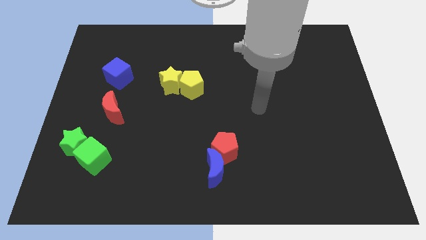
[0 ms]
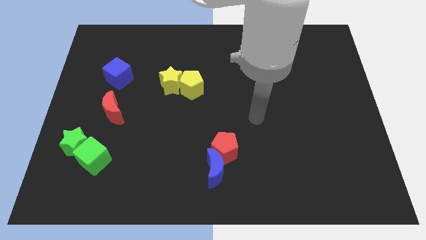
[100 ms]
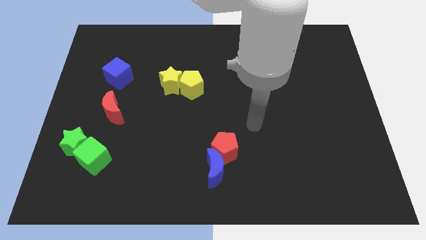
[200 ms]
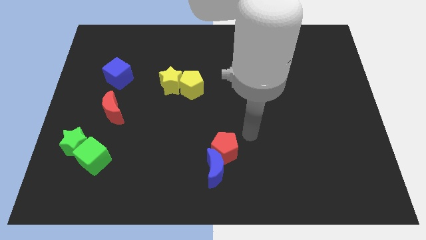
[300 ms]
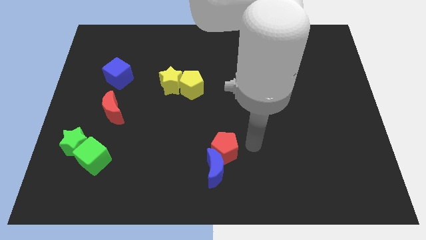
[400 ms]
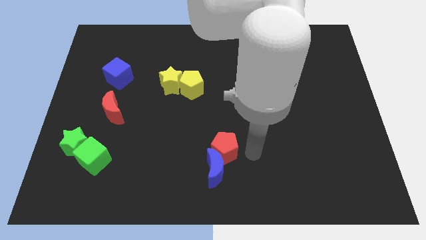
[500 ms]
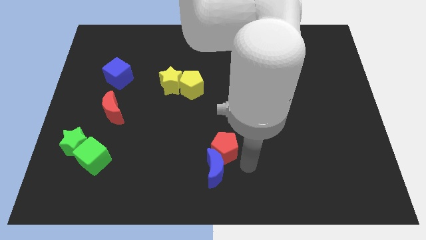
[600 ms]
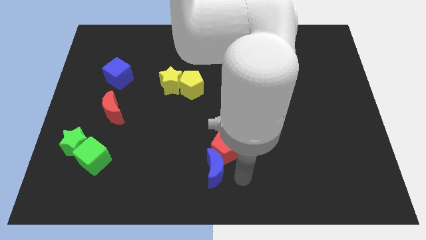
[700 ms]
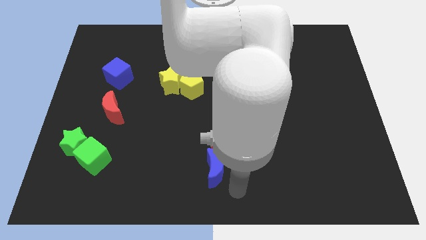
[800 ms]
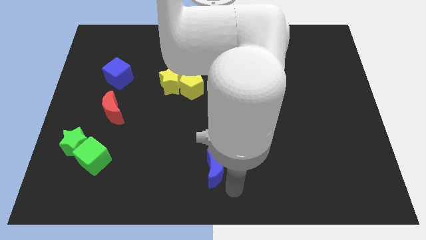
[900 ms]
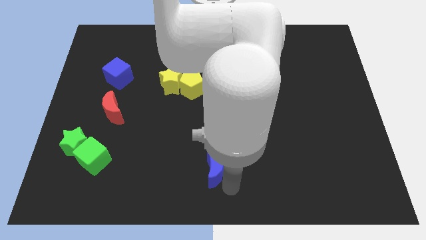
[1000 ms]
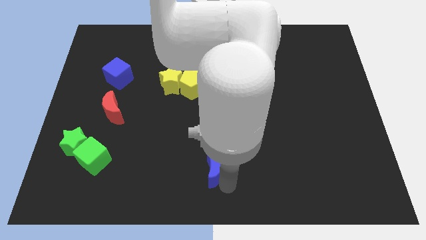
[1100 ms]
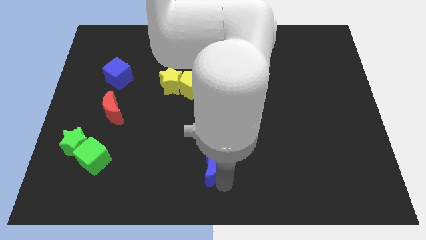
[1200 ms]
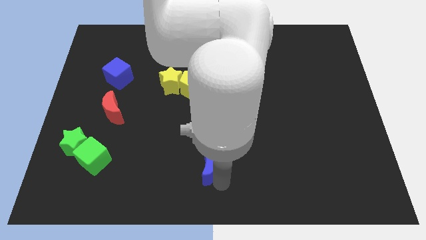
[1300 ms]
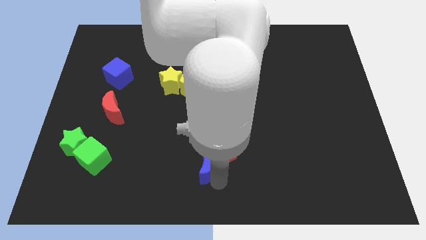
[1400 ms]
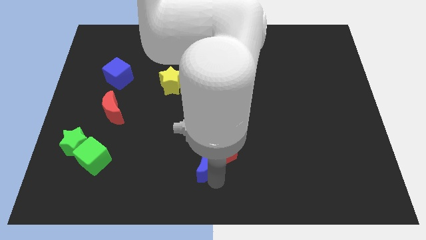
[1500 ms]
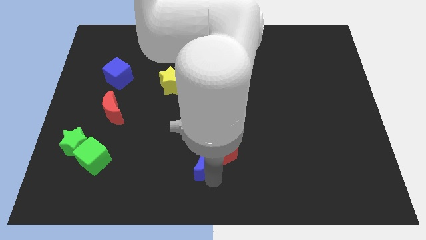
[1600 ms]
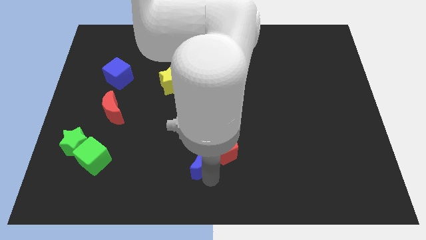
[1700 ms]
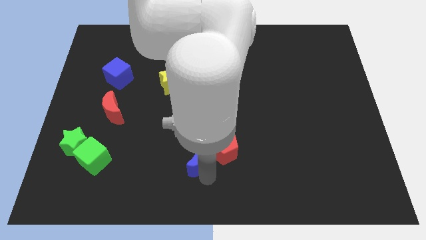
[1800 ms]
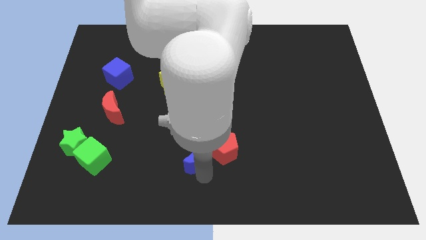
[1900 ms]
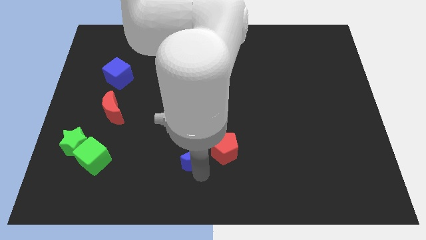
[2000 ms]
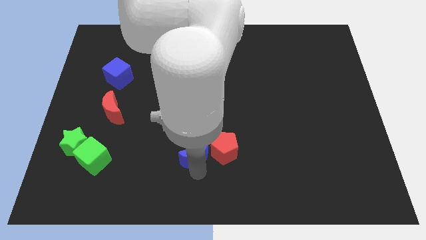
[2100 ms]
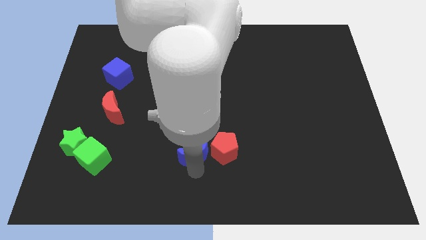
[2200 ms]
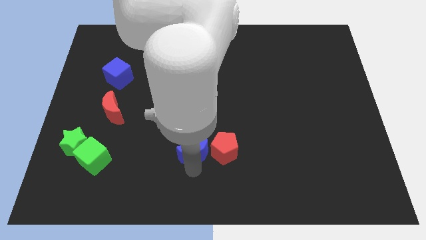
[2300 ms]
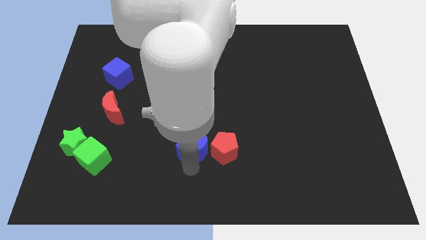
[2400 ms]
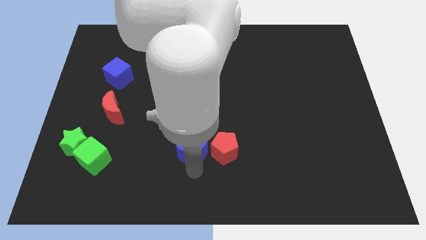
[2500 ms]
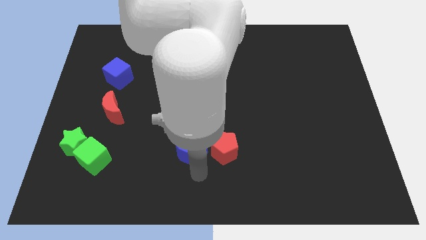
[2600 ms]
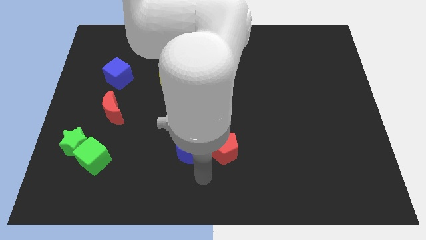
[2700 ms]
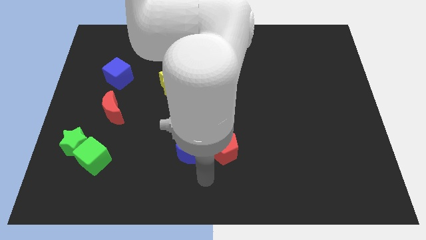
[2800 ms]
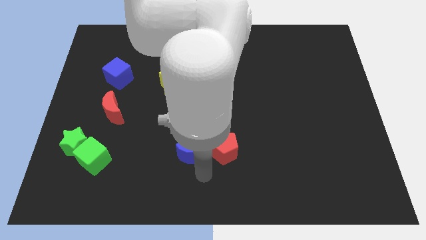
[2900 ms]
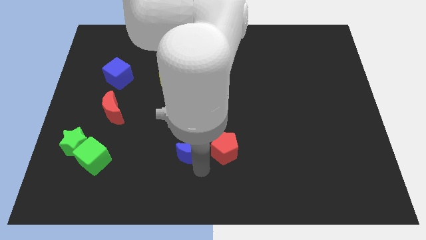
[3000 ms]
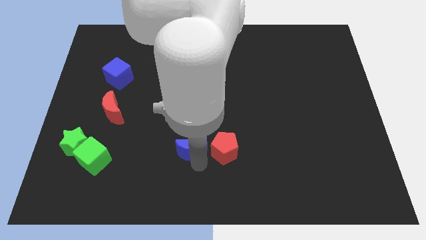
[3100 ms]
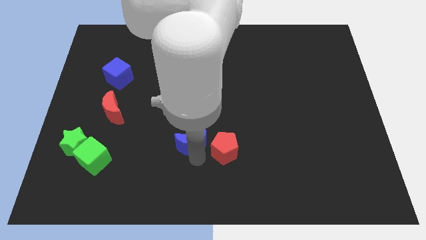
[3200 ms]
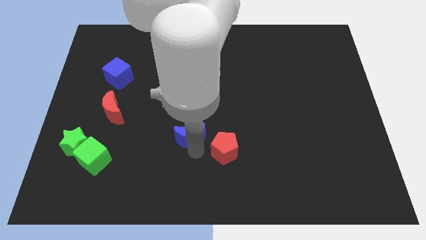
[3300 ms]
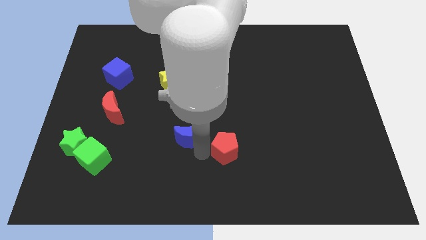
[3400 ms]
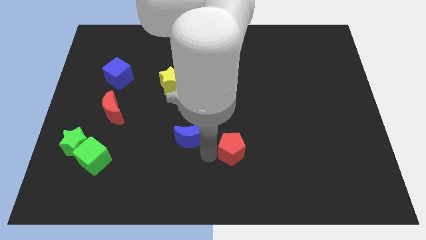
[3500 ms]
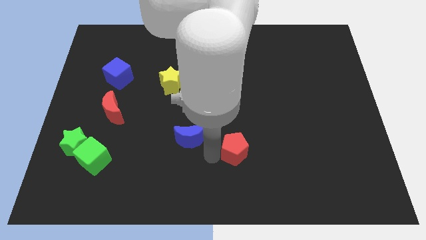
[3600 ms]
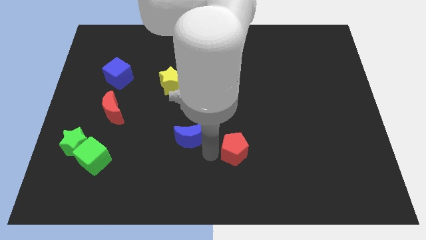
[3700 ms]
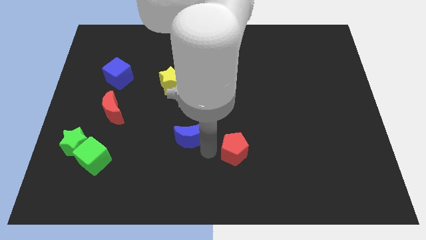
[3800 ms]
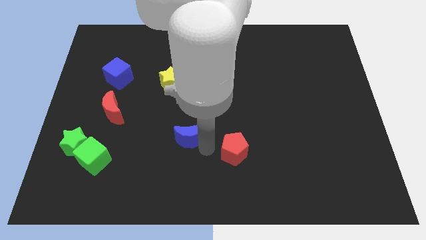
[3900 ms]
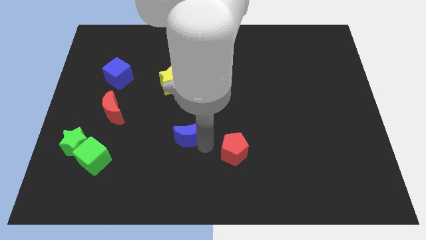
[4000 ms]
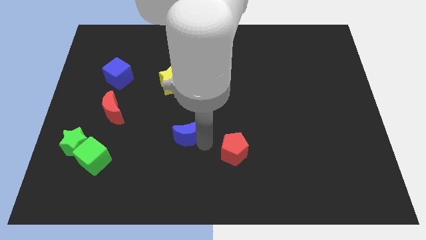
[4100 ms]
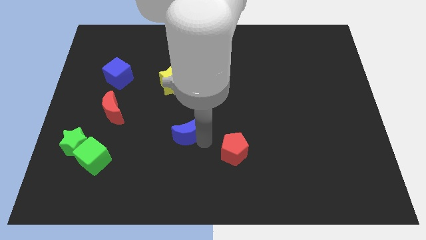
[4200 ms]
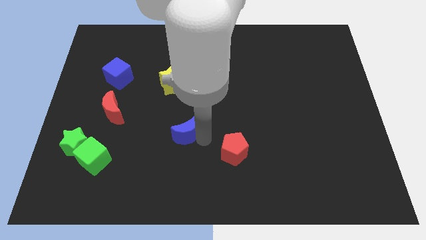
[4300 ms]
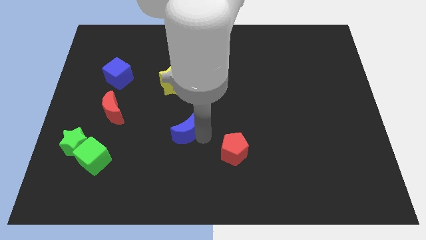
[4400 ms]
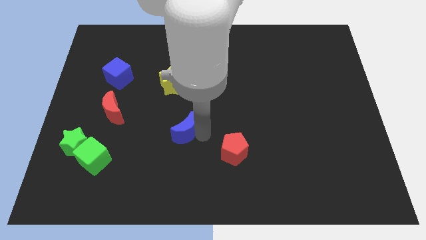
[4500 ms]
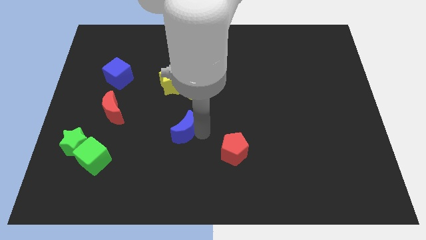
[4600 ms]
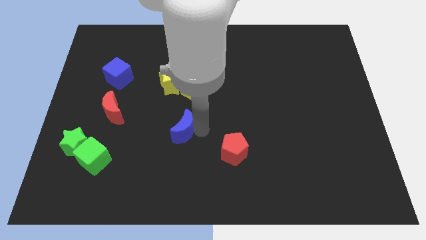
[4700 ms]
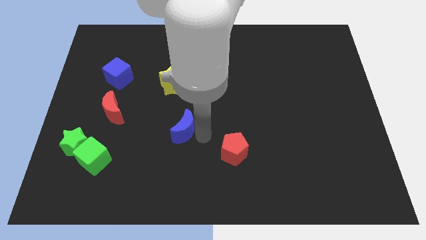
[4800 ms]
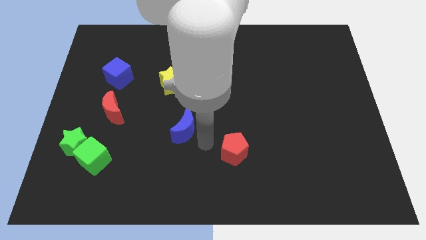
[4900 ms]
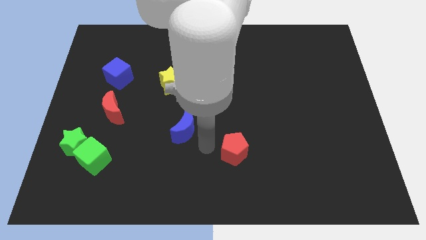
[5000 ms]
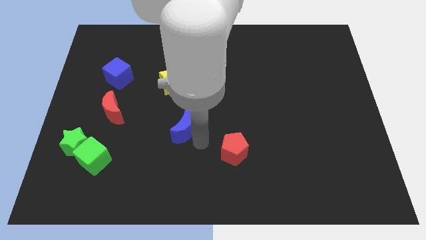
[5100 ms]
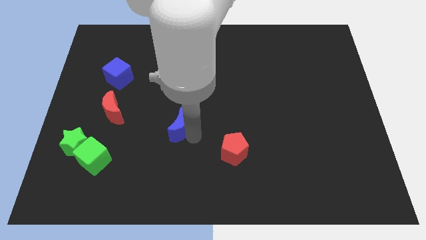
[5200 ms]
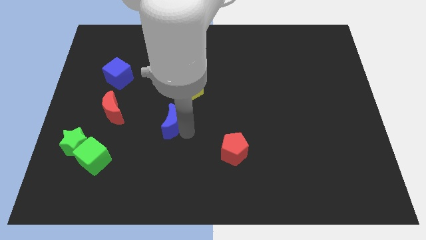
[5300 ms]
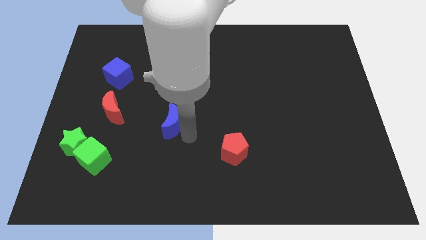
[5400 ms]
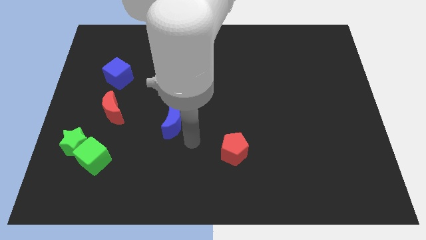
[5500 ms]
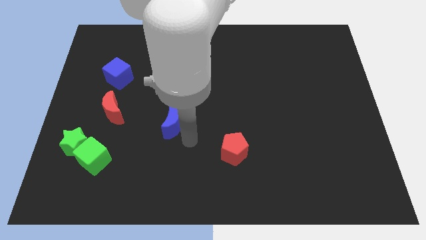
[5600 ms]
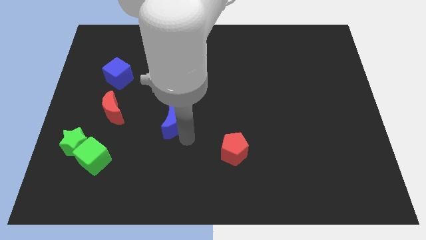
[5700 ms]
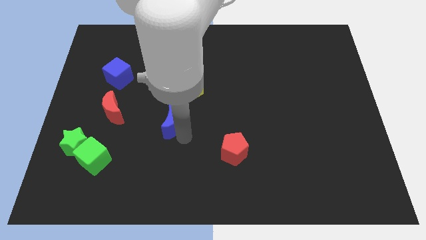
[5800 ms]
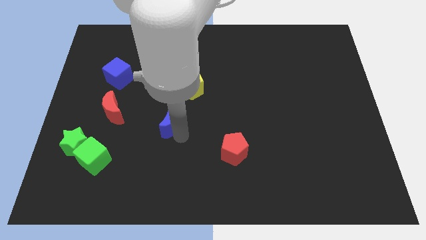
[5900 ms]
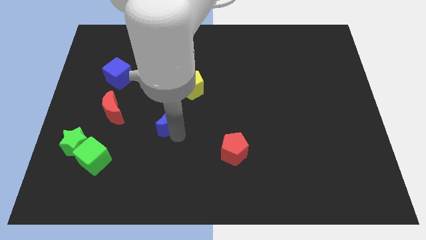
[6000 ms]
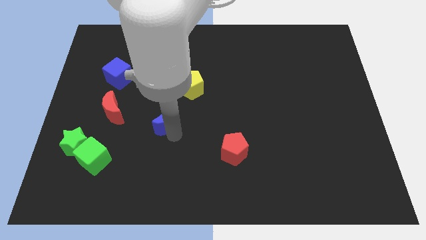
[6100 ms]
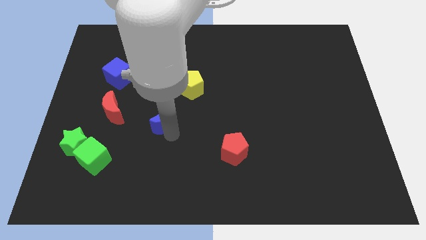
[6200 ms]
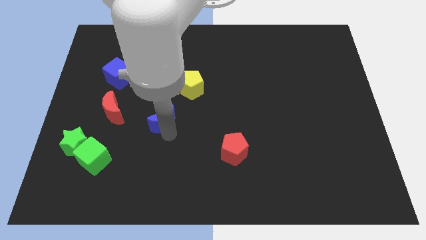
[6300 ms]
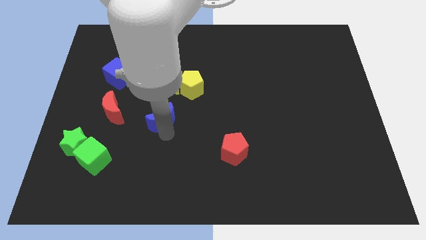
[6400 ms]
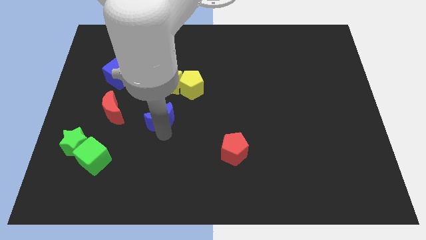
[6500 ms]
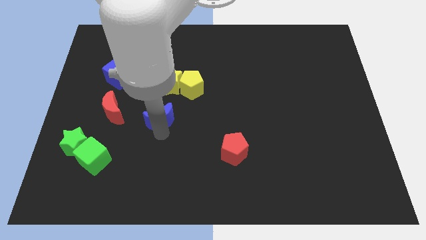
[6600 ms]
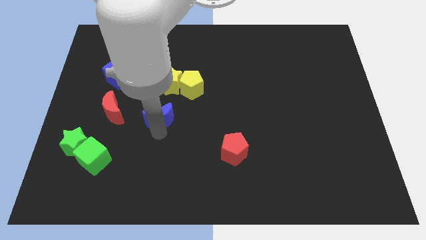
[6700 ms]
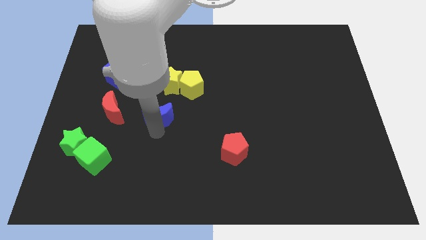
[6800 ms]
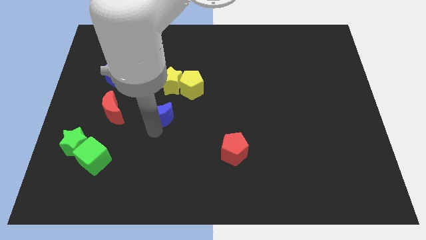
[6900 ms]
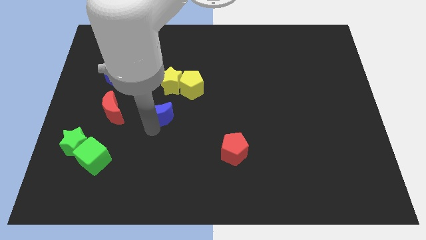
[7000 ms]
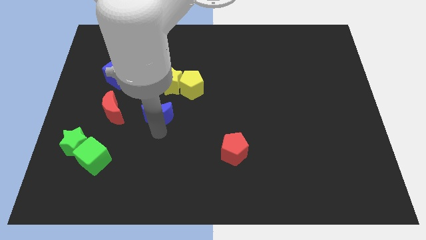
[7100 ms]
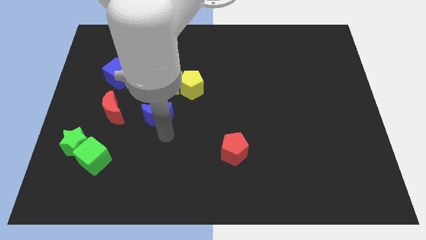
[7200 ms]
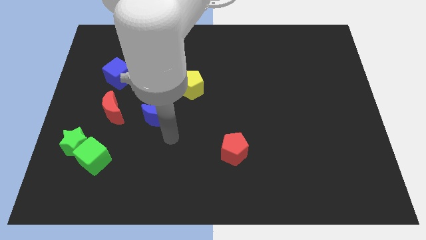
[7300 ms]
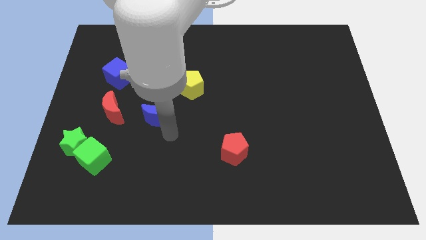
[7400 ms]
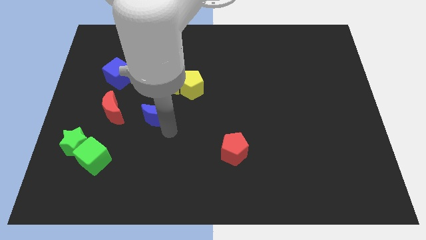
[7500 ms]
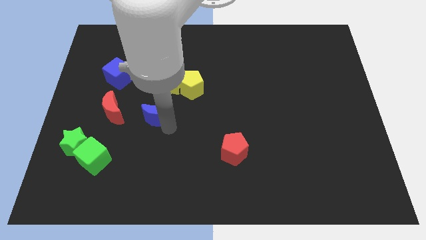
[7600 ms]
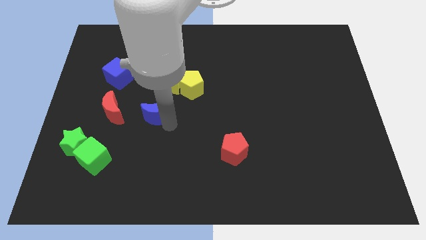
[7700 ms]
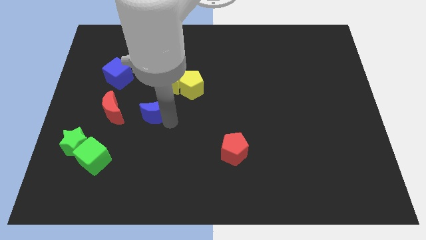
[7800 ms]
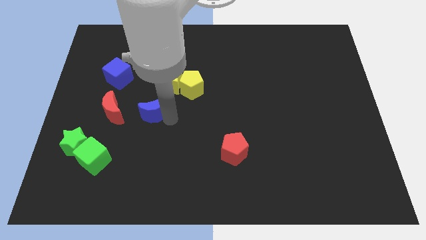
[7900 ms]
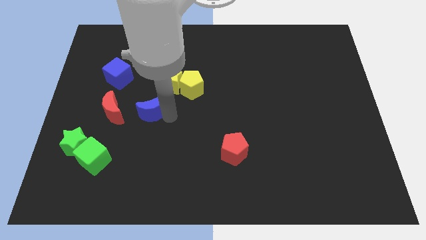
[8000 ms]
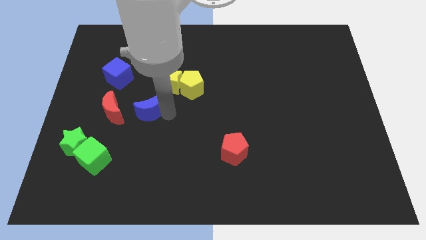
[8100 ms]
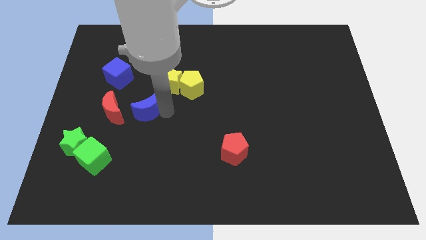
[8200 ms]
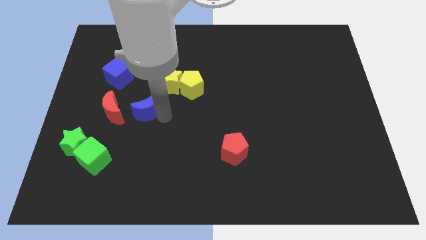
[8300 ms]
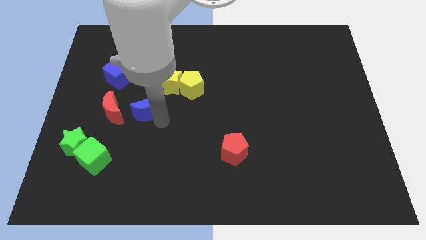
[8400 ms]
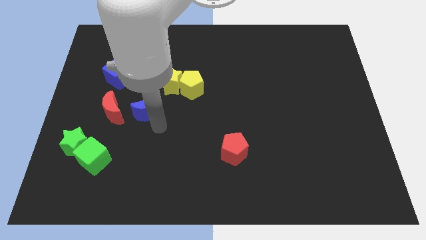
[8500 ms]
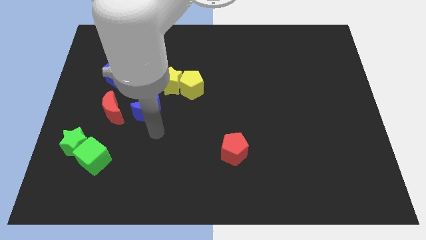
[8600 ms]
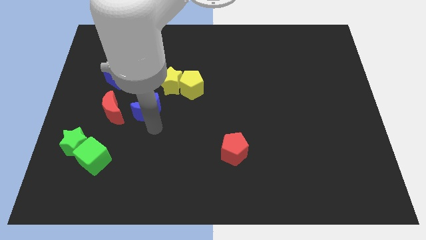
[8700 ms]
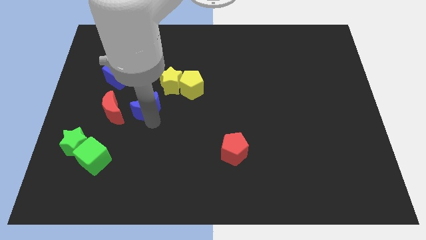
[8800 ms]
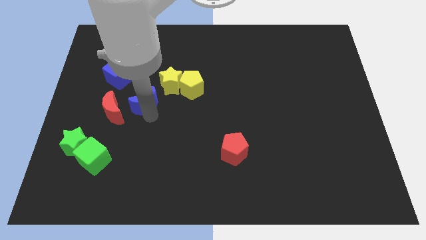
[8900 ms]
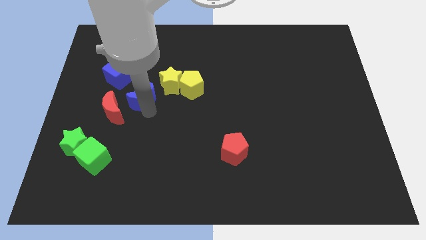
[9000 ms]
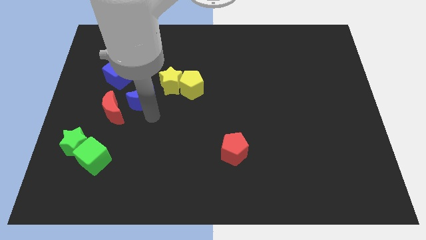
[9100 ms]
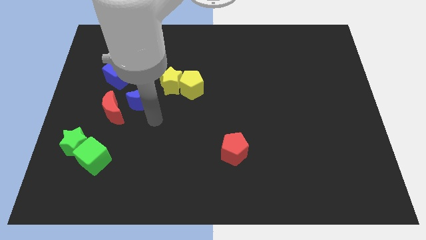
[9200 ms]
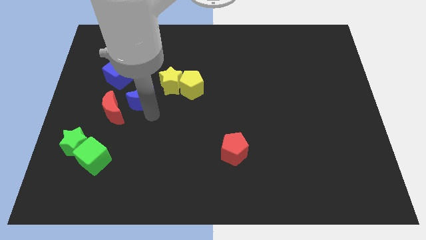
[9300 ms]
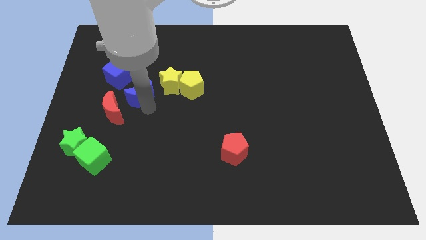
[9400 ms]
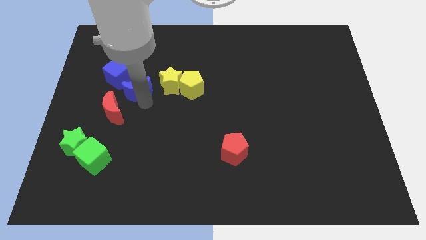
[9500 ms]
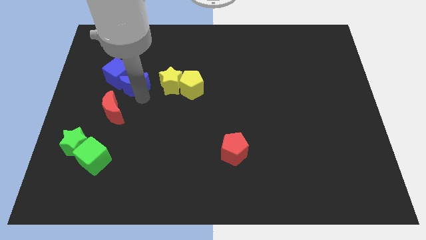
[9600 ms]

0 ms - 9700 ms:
move the blue moon close to the blue cube
